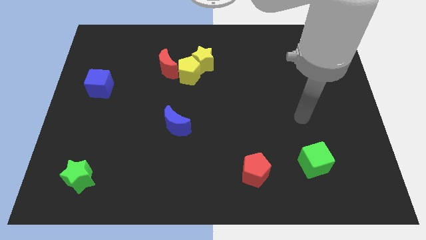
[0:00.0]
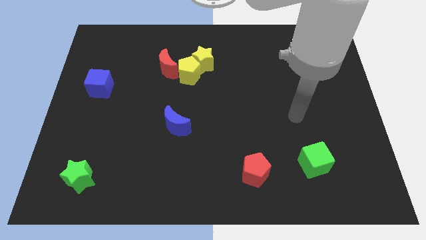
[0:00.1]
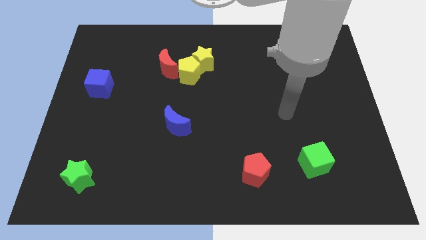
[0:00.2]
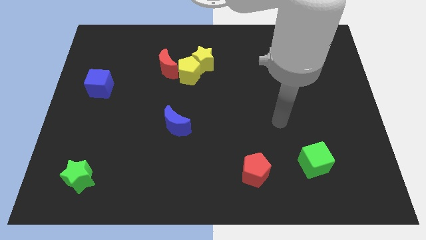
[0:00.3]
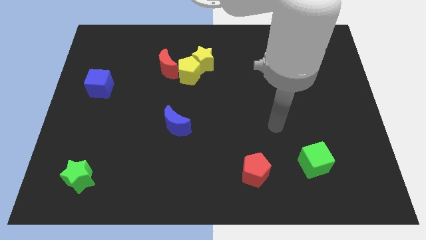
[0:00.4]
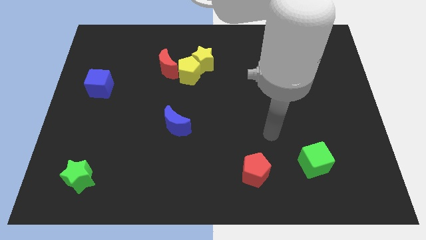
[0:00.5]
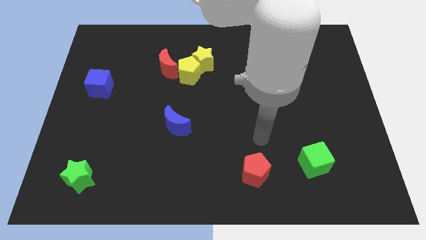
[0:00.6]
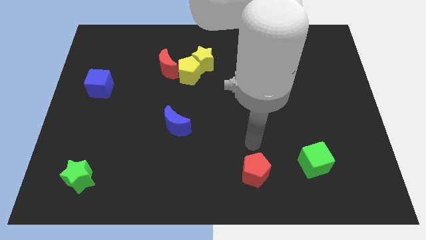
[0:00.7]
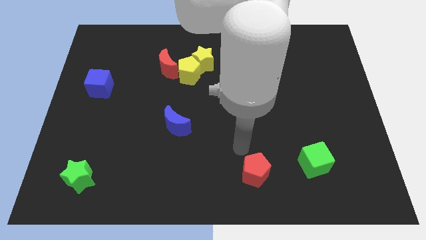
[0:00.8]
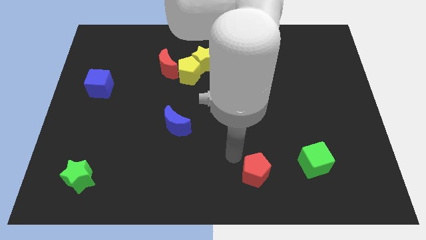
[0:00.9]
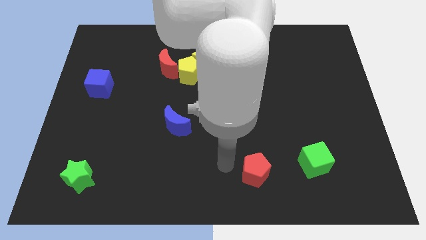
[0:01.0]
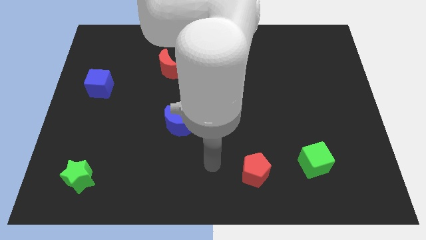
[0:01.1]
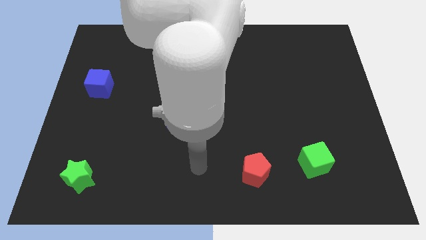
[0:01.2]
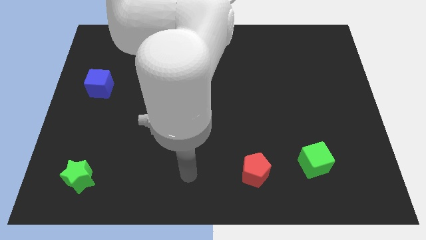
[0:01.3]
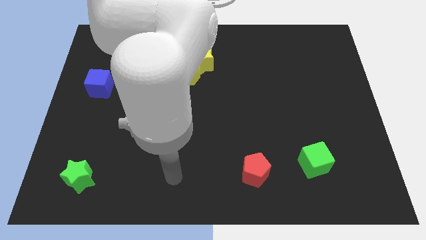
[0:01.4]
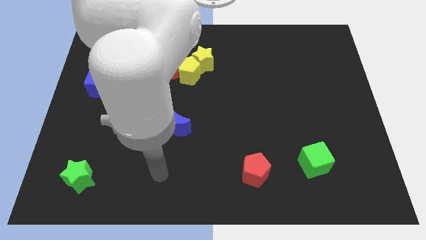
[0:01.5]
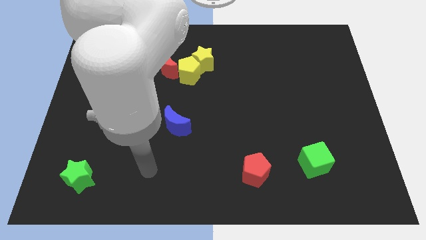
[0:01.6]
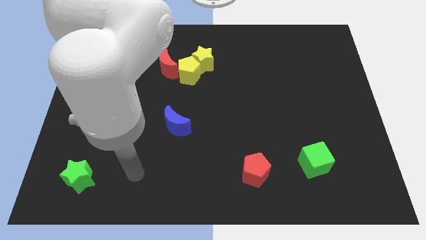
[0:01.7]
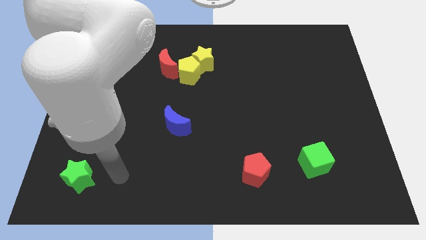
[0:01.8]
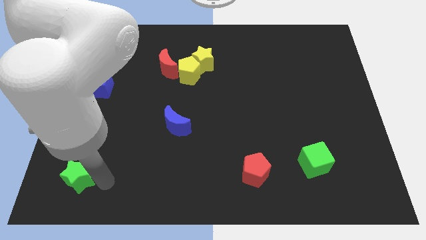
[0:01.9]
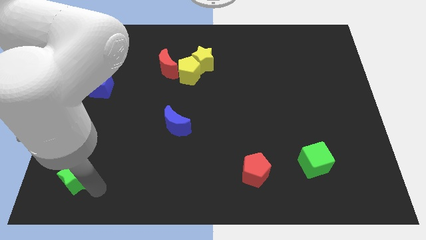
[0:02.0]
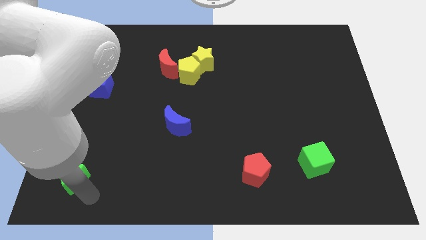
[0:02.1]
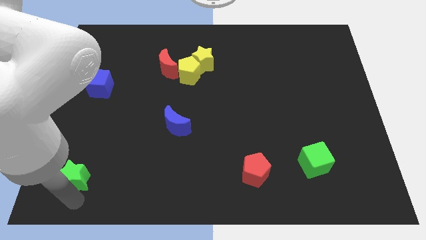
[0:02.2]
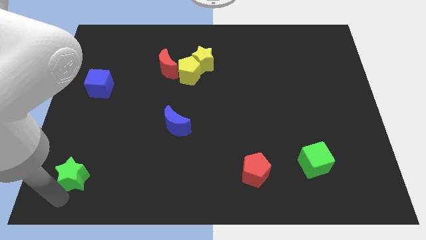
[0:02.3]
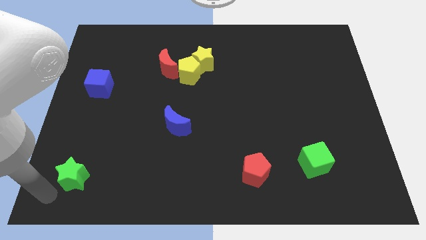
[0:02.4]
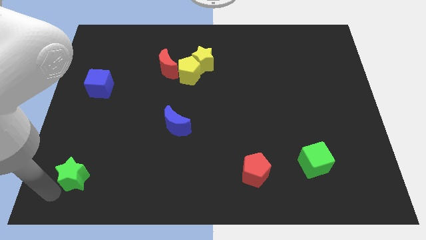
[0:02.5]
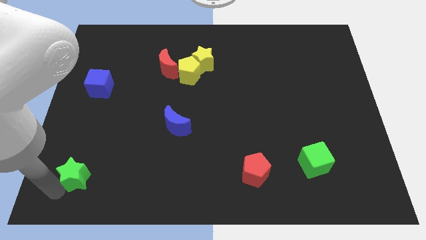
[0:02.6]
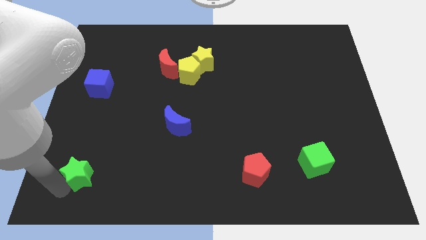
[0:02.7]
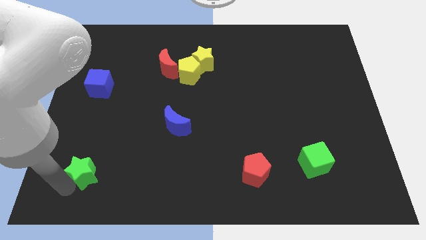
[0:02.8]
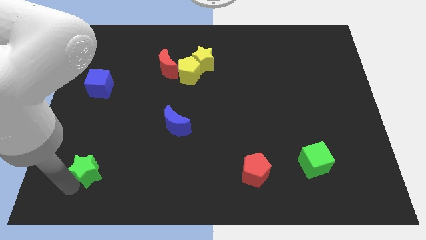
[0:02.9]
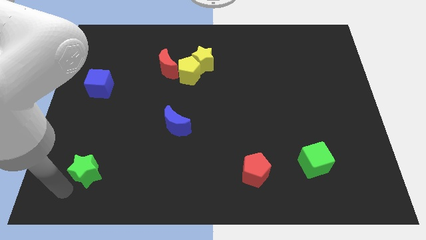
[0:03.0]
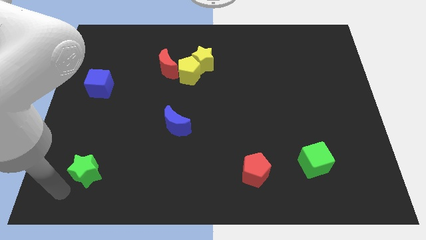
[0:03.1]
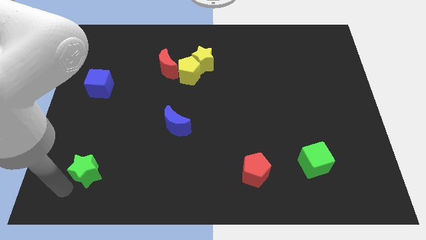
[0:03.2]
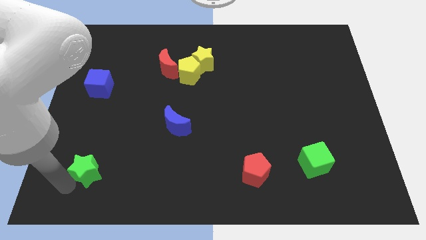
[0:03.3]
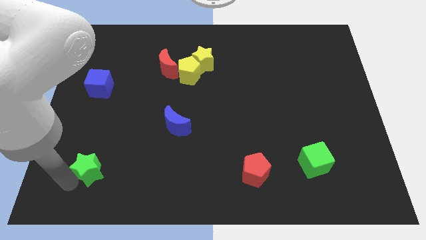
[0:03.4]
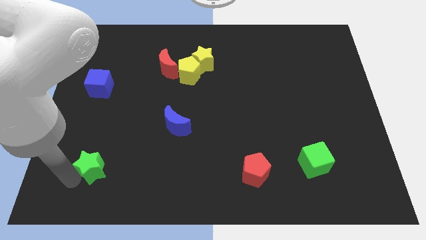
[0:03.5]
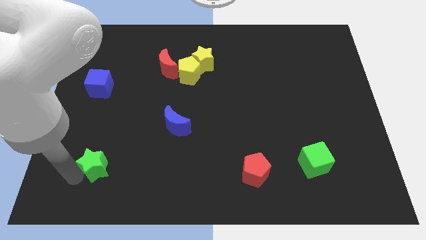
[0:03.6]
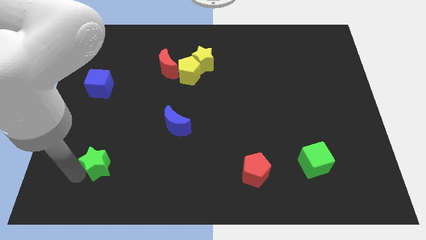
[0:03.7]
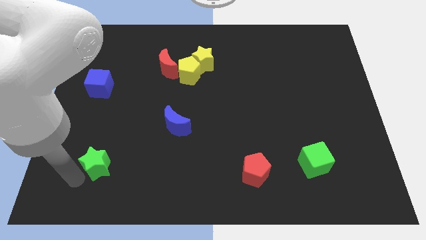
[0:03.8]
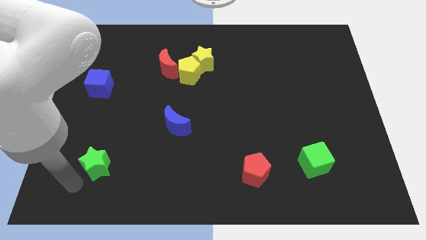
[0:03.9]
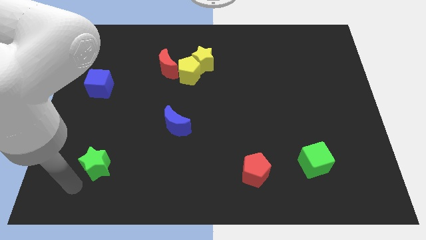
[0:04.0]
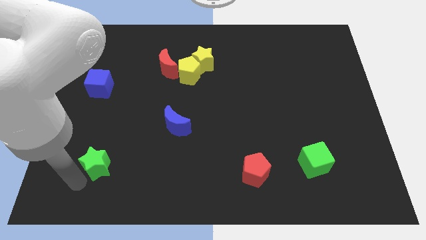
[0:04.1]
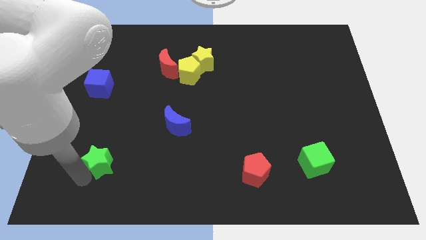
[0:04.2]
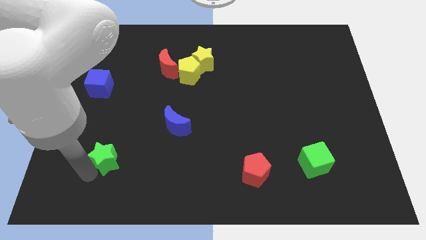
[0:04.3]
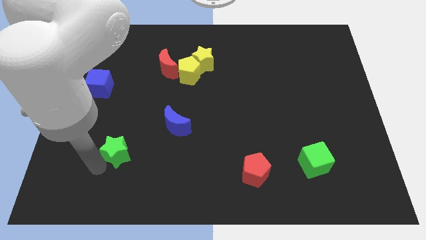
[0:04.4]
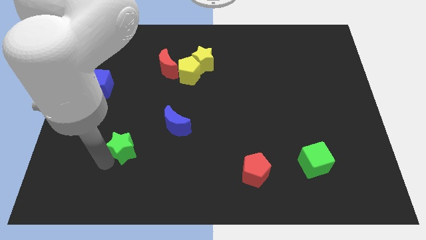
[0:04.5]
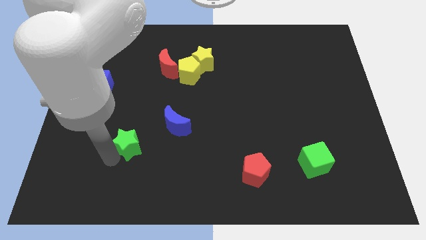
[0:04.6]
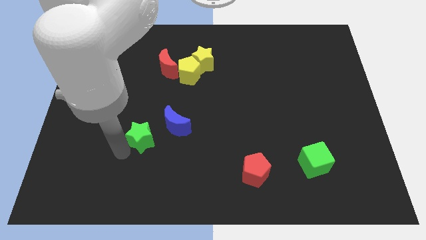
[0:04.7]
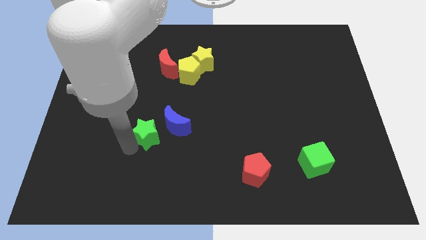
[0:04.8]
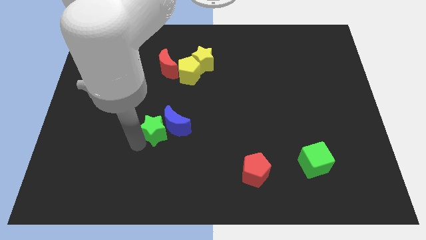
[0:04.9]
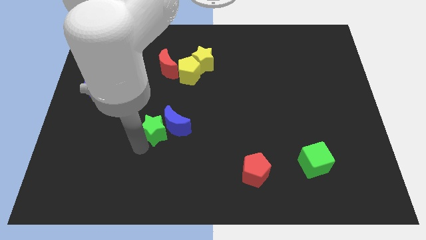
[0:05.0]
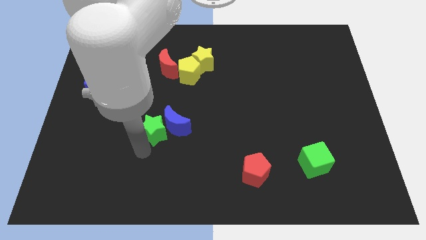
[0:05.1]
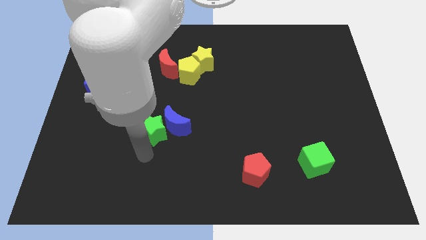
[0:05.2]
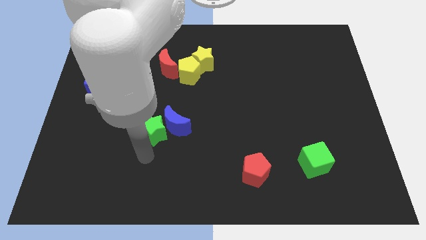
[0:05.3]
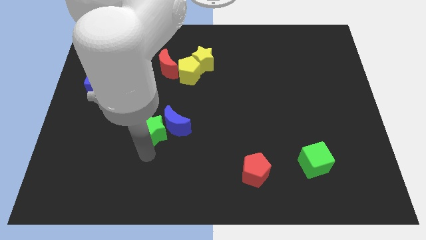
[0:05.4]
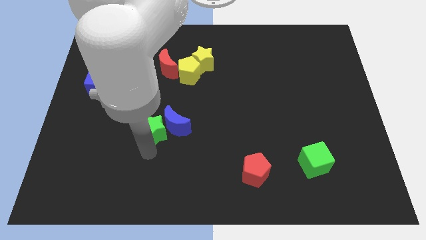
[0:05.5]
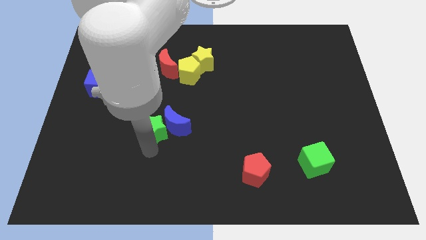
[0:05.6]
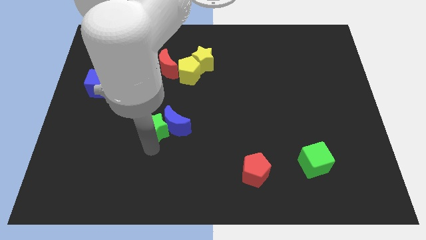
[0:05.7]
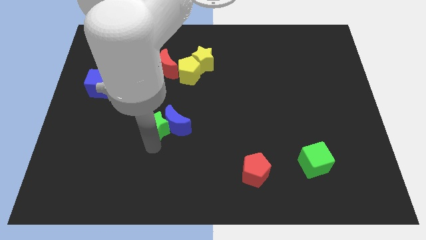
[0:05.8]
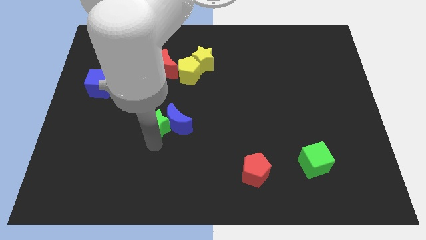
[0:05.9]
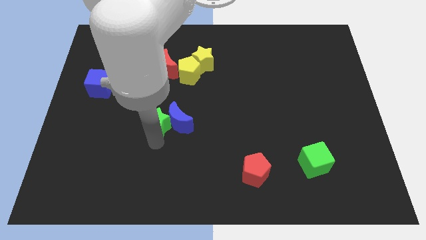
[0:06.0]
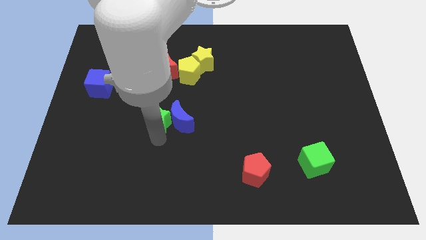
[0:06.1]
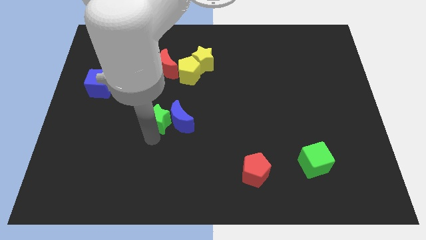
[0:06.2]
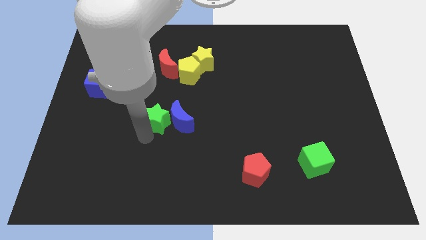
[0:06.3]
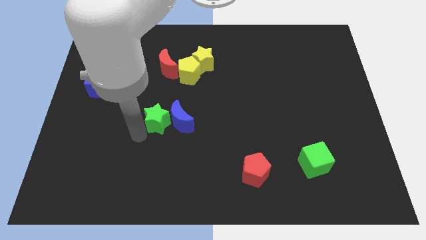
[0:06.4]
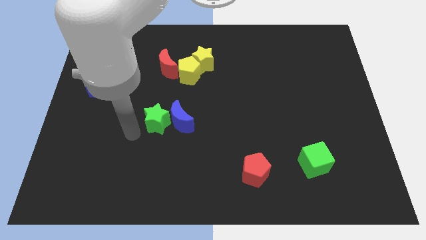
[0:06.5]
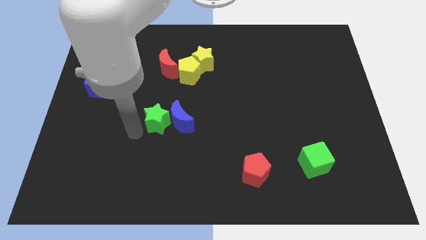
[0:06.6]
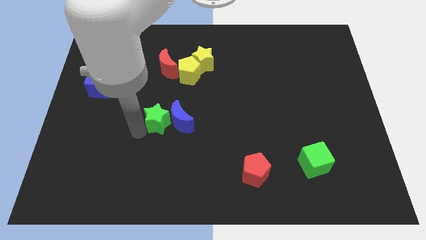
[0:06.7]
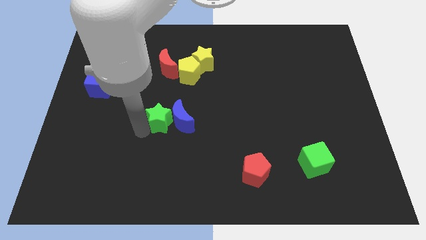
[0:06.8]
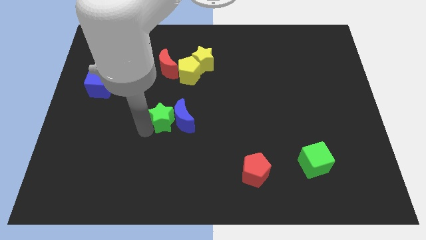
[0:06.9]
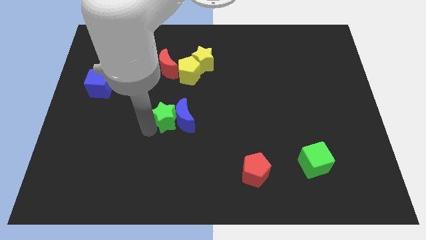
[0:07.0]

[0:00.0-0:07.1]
push the green star to the middle
